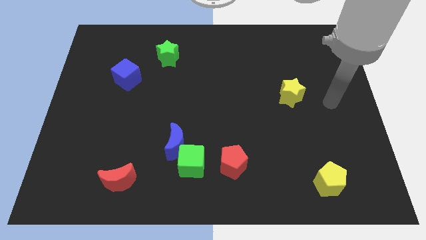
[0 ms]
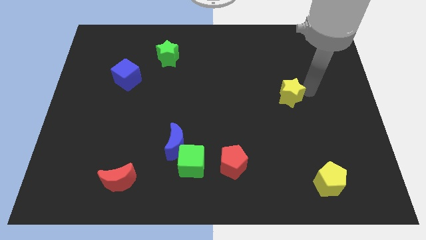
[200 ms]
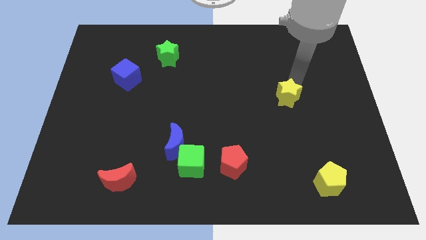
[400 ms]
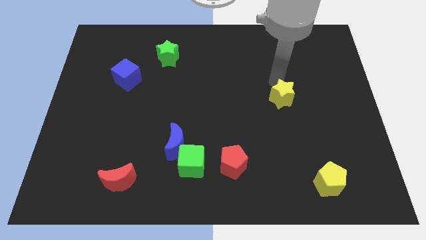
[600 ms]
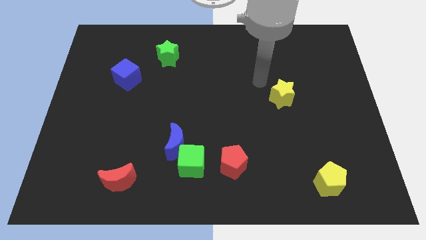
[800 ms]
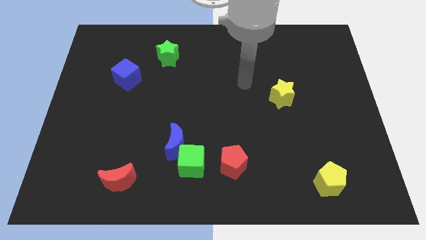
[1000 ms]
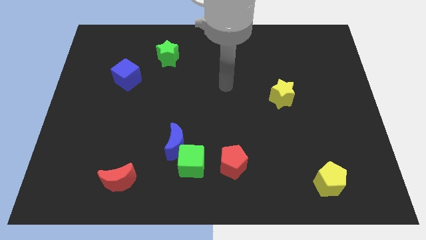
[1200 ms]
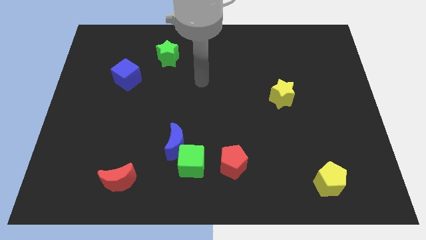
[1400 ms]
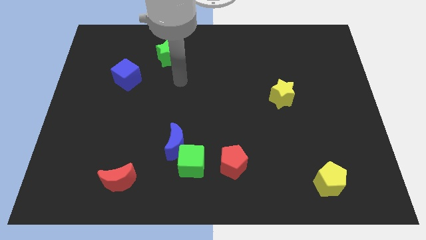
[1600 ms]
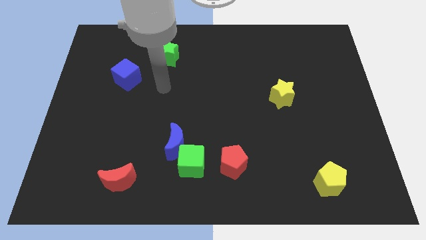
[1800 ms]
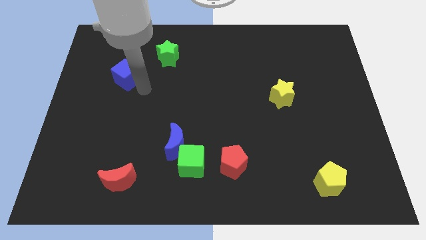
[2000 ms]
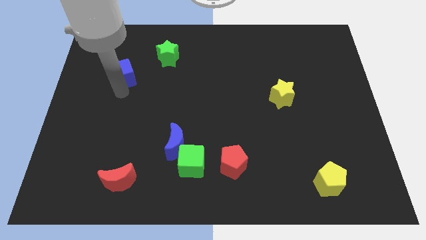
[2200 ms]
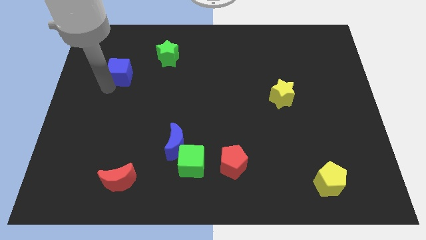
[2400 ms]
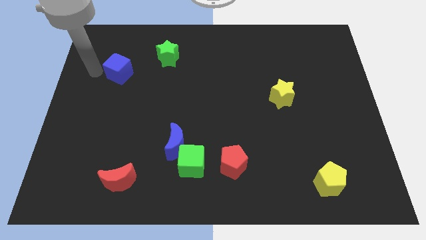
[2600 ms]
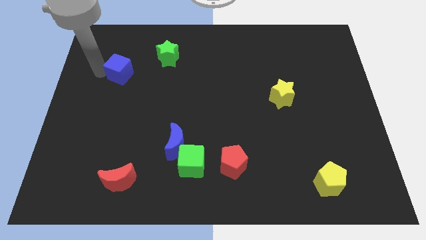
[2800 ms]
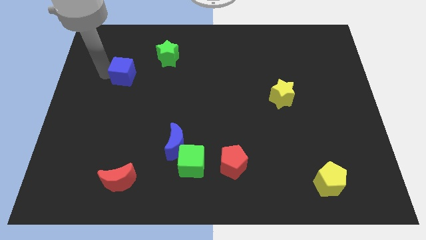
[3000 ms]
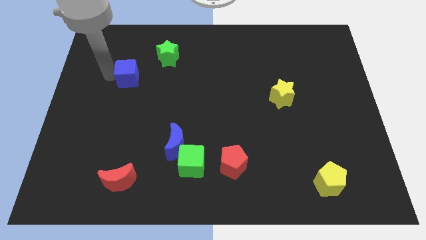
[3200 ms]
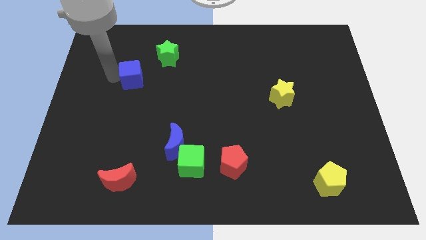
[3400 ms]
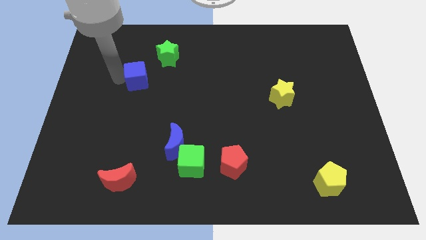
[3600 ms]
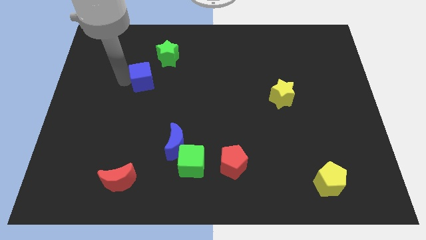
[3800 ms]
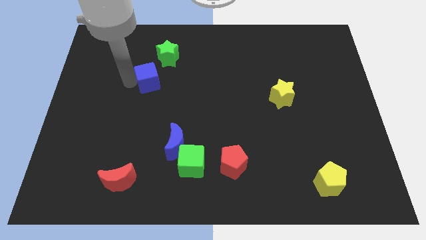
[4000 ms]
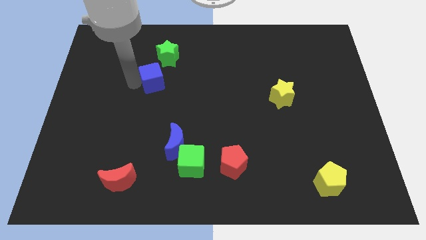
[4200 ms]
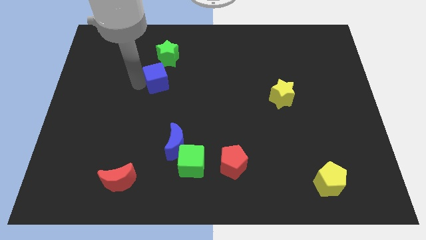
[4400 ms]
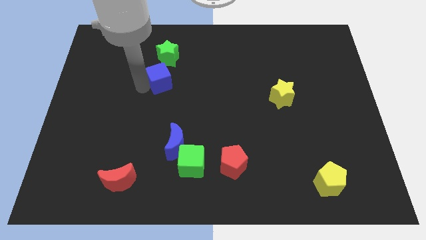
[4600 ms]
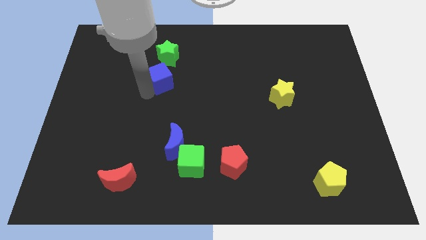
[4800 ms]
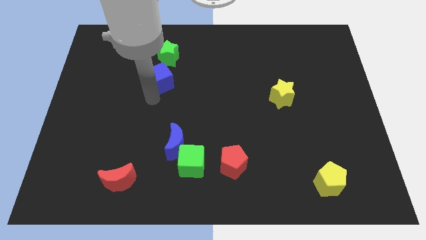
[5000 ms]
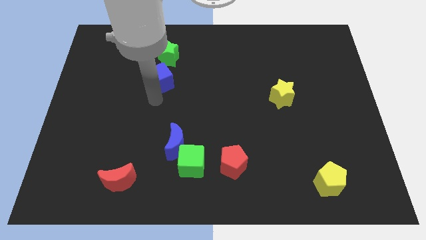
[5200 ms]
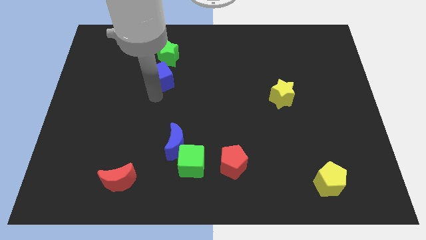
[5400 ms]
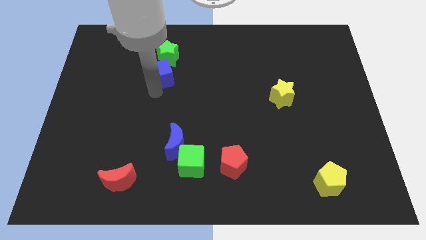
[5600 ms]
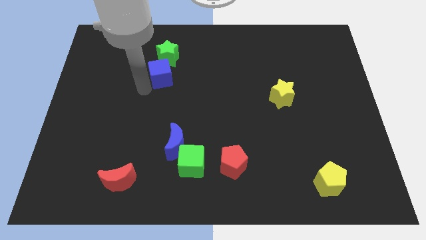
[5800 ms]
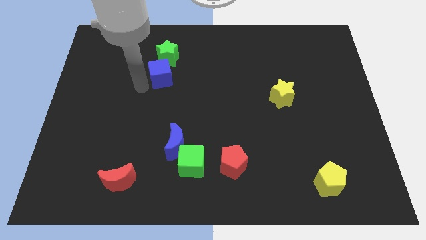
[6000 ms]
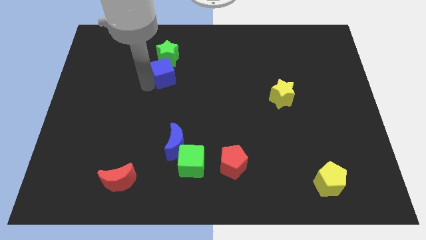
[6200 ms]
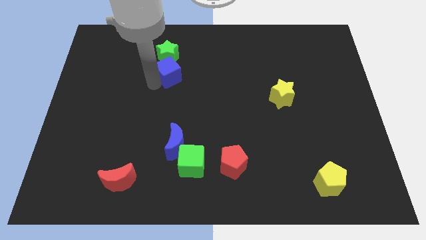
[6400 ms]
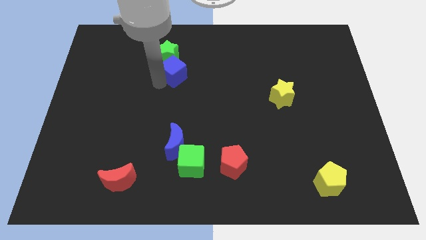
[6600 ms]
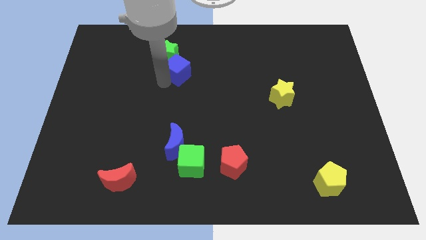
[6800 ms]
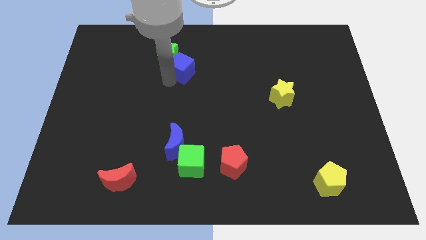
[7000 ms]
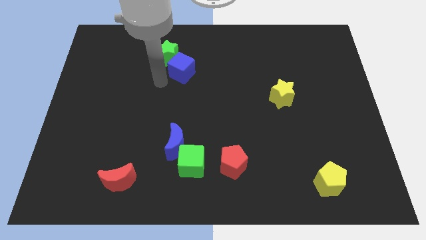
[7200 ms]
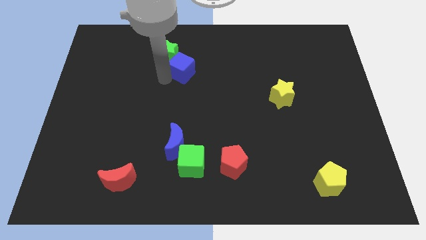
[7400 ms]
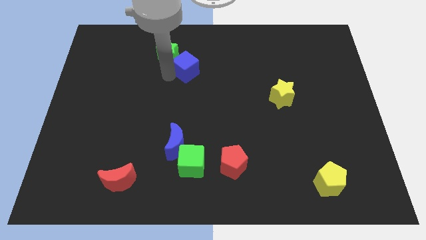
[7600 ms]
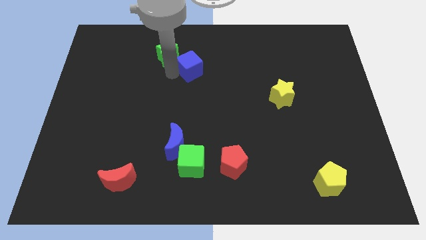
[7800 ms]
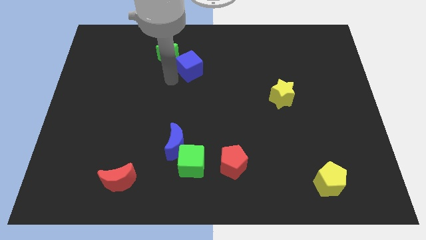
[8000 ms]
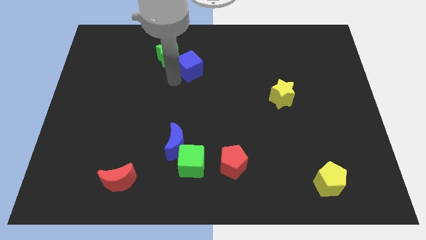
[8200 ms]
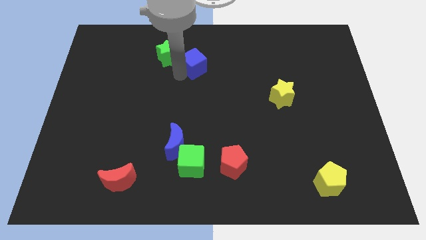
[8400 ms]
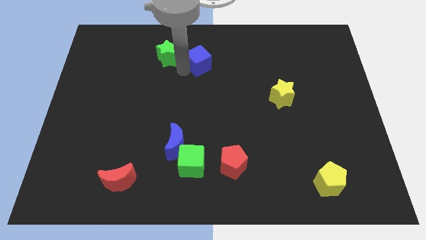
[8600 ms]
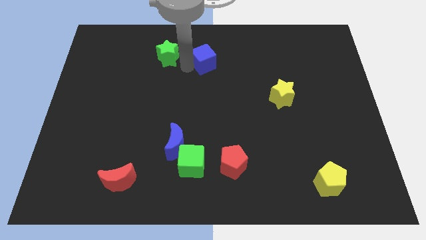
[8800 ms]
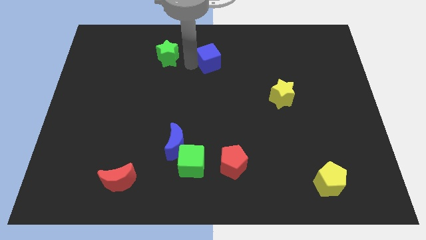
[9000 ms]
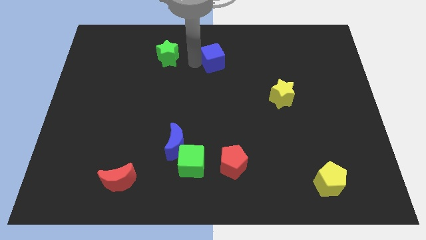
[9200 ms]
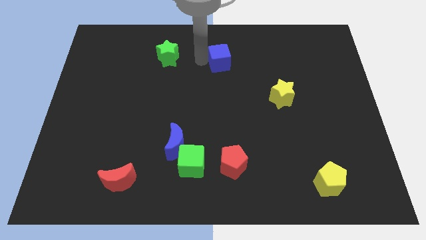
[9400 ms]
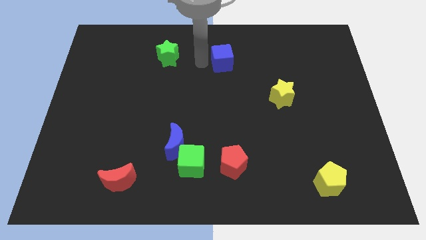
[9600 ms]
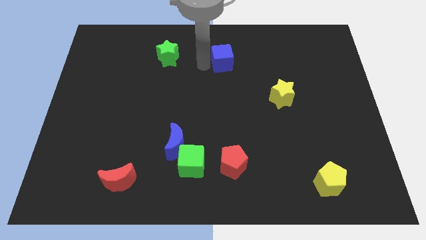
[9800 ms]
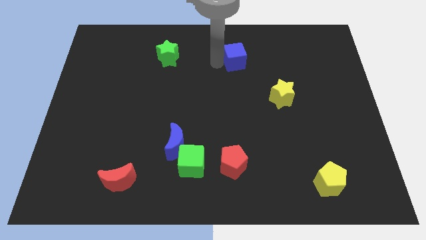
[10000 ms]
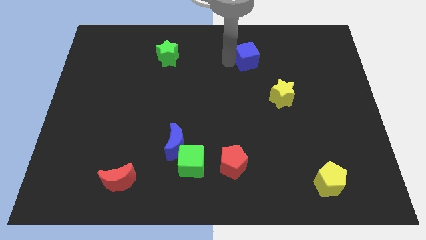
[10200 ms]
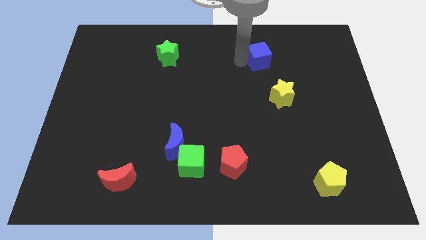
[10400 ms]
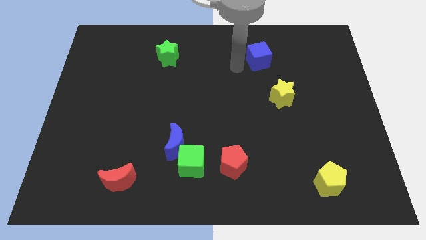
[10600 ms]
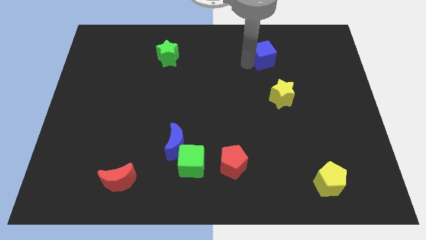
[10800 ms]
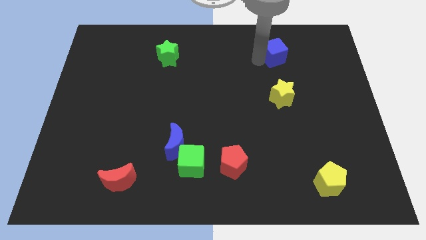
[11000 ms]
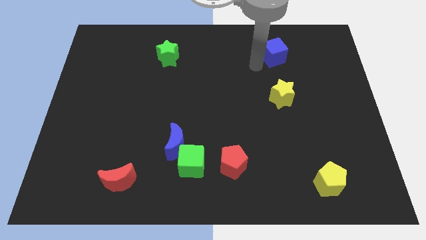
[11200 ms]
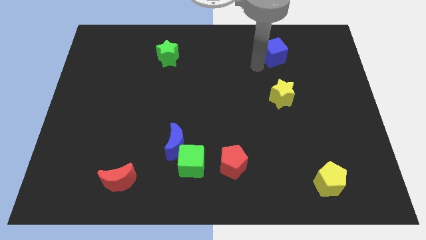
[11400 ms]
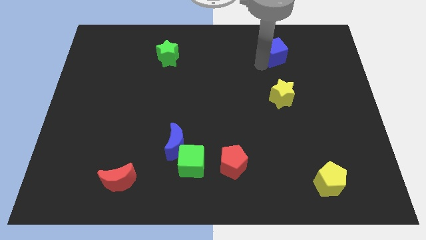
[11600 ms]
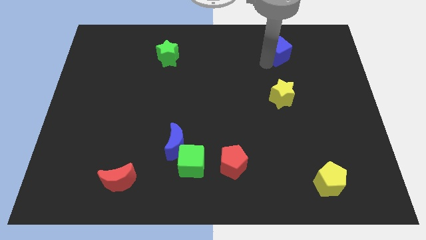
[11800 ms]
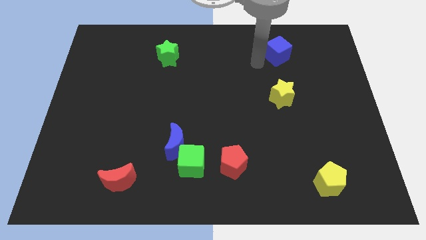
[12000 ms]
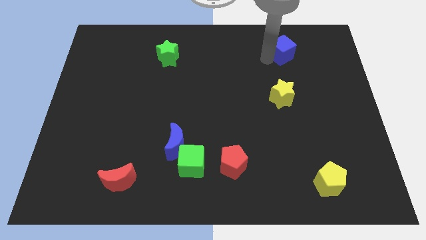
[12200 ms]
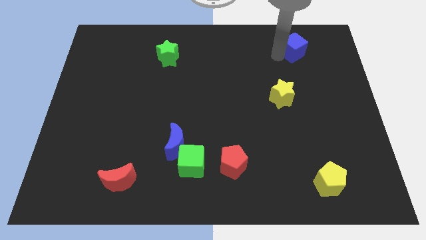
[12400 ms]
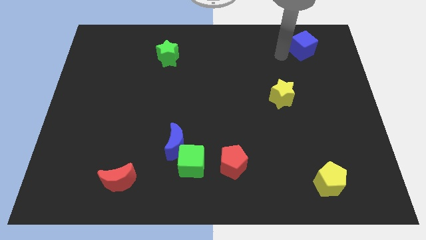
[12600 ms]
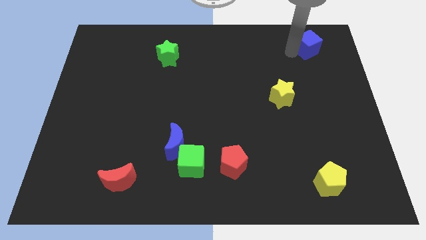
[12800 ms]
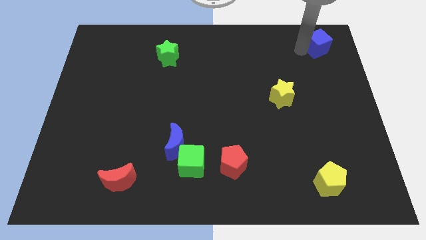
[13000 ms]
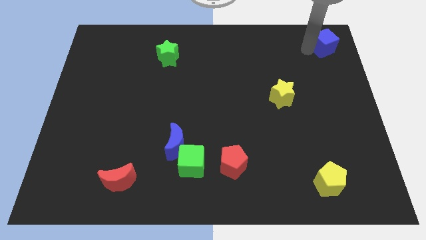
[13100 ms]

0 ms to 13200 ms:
move the blue cube to the top right of the board
